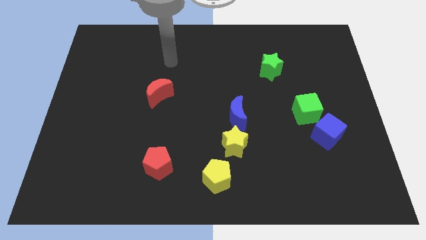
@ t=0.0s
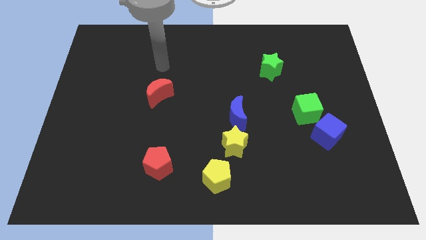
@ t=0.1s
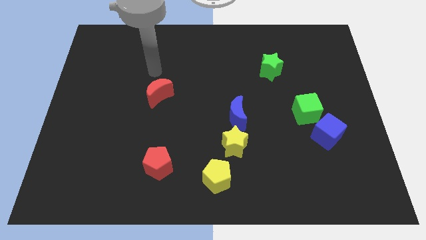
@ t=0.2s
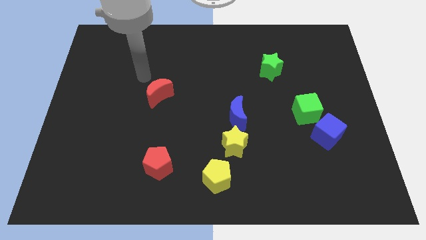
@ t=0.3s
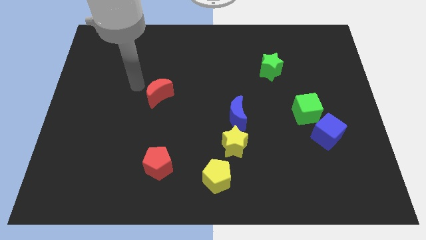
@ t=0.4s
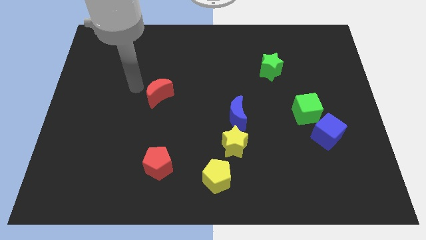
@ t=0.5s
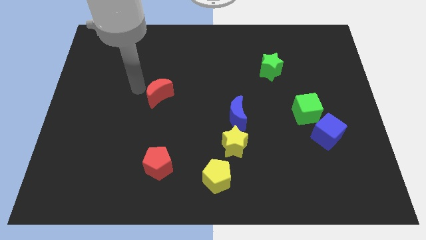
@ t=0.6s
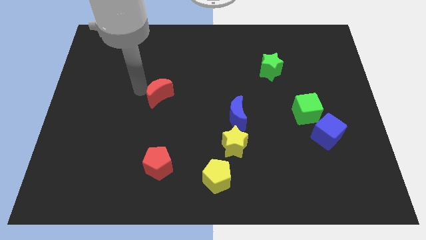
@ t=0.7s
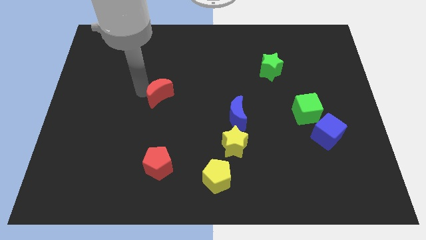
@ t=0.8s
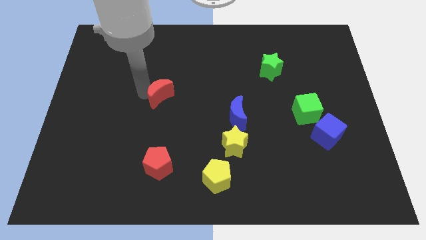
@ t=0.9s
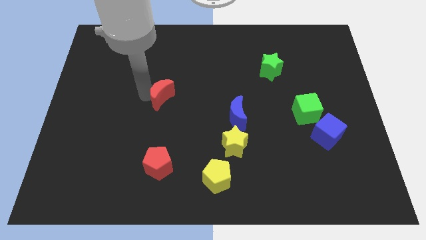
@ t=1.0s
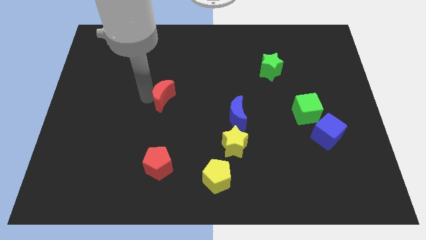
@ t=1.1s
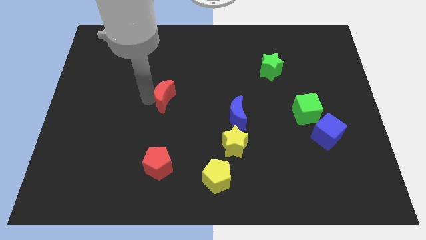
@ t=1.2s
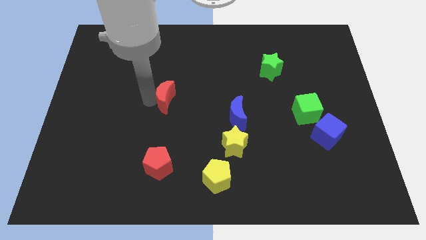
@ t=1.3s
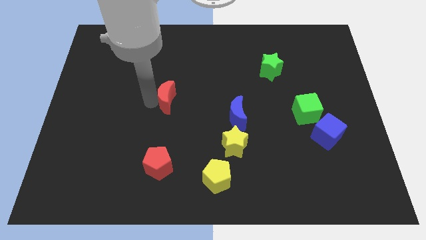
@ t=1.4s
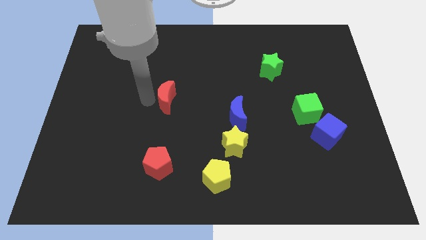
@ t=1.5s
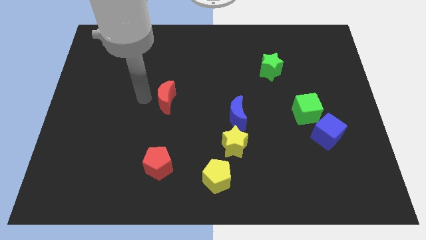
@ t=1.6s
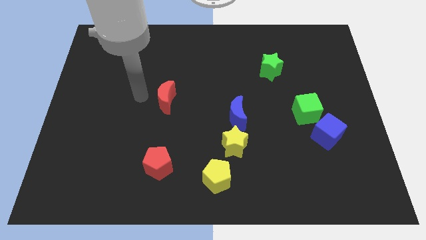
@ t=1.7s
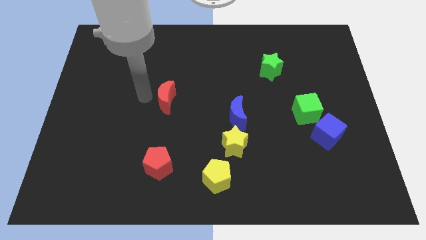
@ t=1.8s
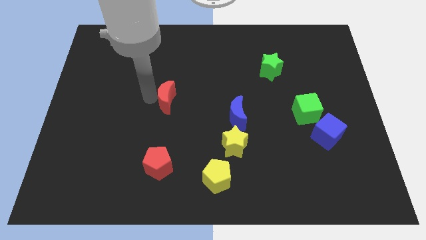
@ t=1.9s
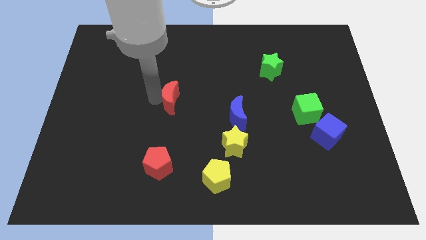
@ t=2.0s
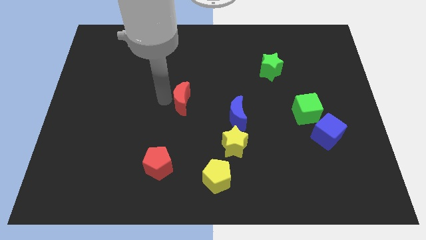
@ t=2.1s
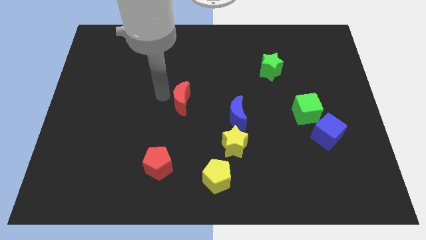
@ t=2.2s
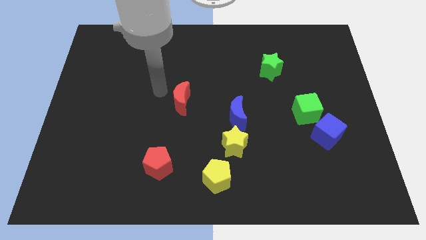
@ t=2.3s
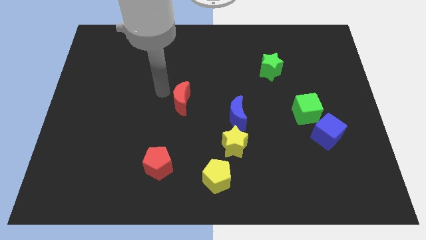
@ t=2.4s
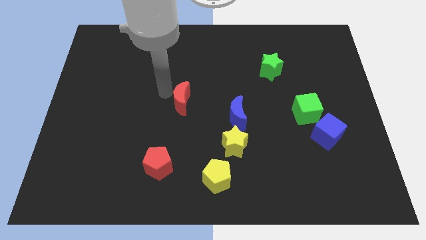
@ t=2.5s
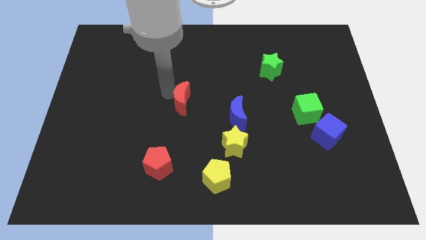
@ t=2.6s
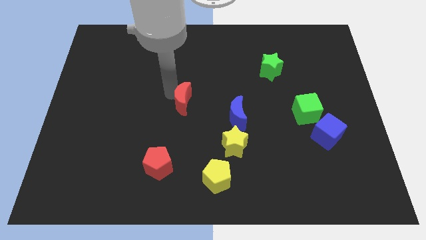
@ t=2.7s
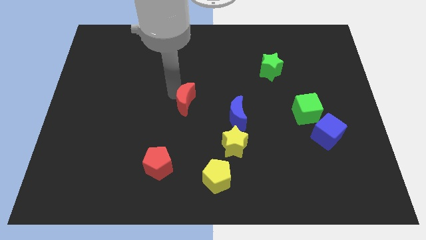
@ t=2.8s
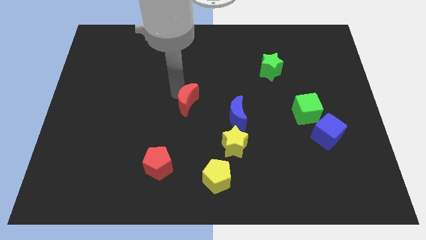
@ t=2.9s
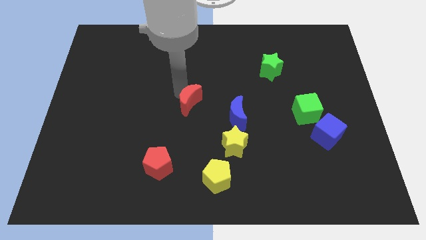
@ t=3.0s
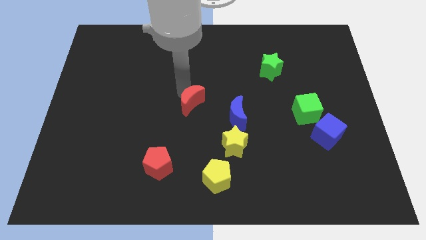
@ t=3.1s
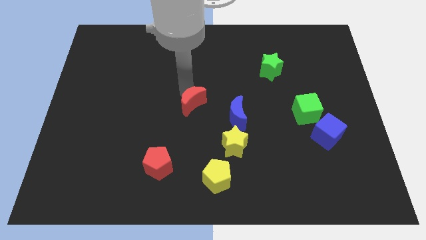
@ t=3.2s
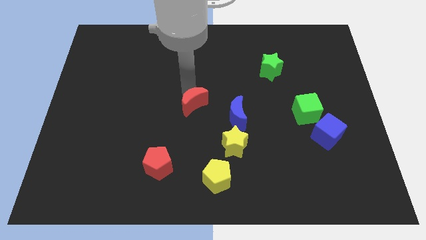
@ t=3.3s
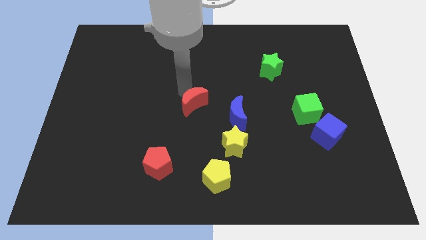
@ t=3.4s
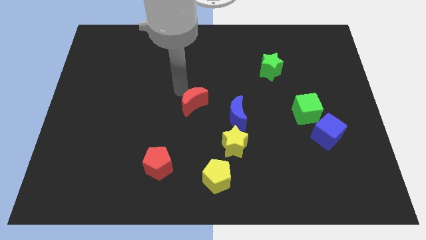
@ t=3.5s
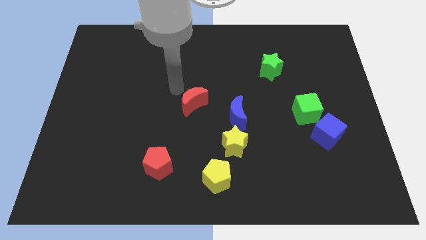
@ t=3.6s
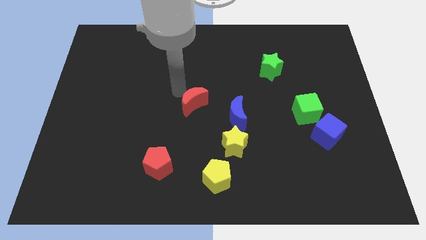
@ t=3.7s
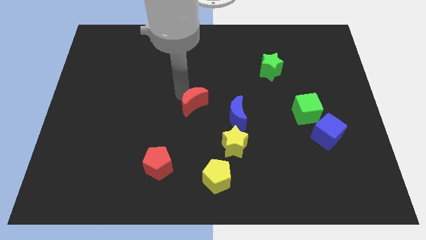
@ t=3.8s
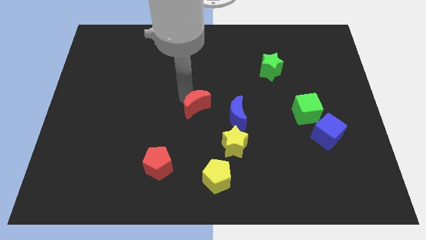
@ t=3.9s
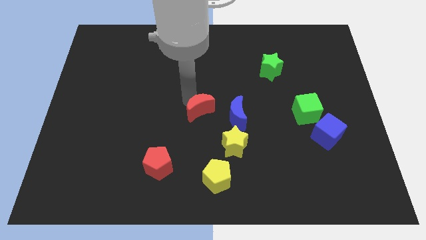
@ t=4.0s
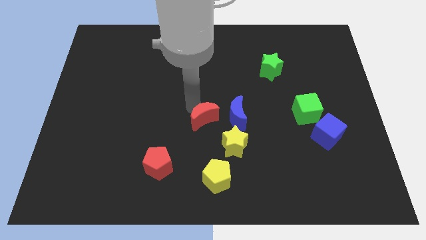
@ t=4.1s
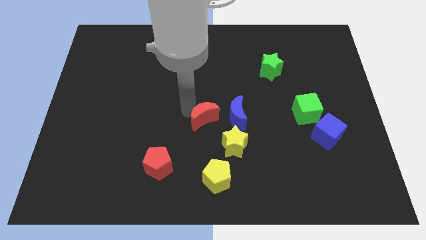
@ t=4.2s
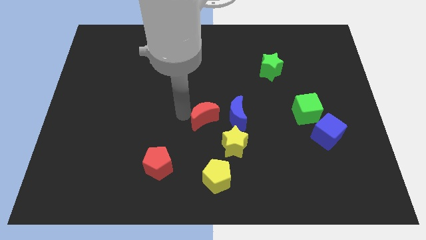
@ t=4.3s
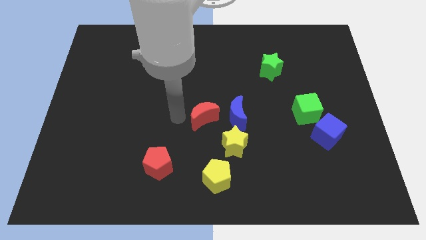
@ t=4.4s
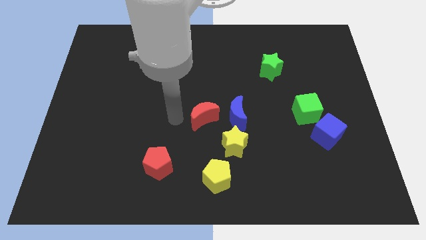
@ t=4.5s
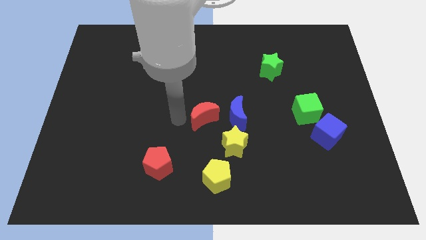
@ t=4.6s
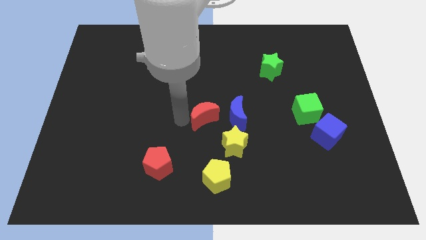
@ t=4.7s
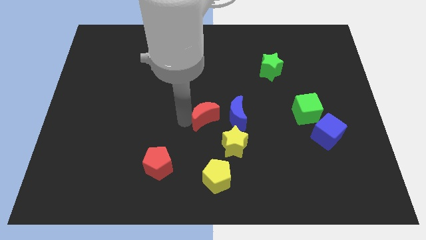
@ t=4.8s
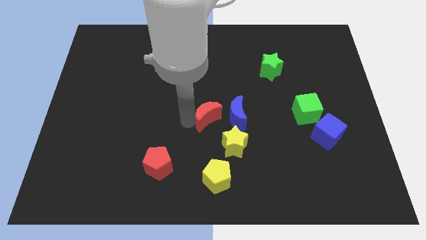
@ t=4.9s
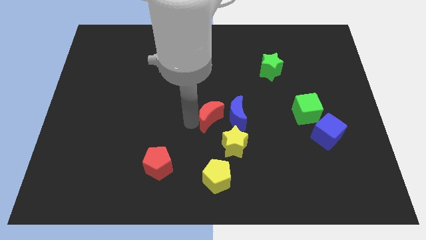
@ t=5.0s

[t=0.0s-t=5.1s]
move the red moon to the blue moon

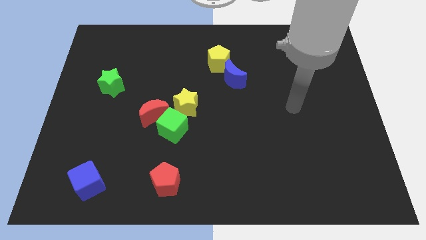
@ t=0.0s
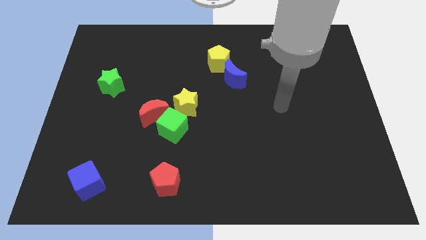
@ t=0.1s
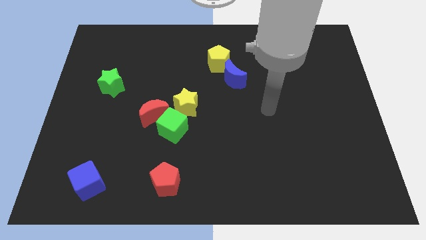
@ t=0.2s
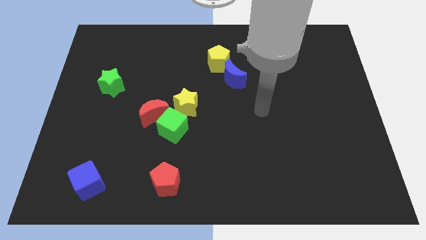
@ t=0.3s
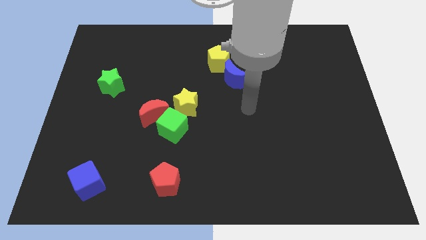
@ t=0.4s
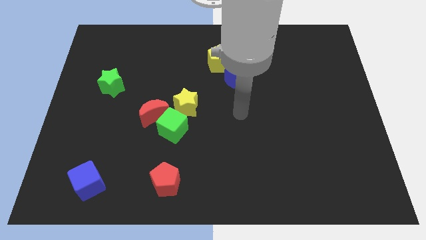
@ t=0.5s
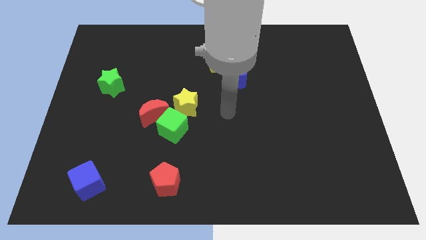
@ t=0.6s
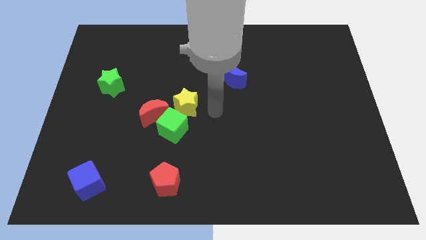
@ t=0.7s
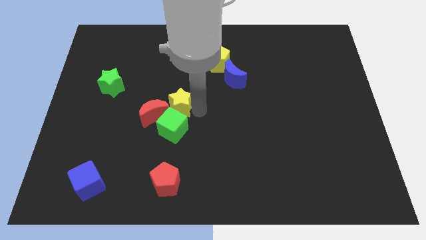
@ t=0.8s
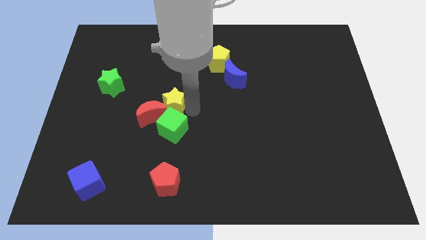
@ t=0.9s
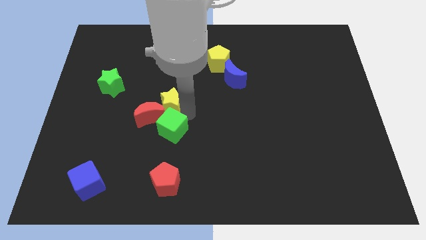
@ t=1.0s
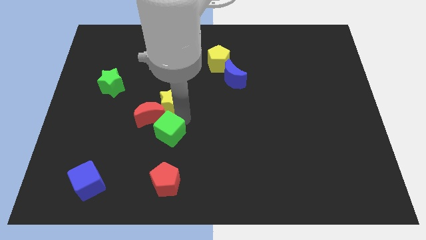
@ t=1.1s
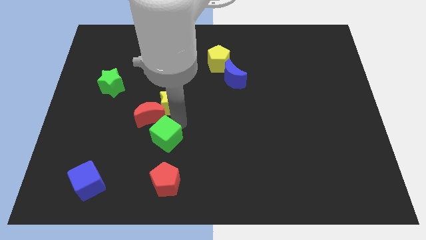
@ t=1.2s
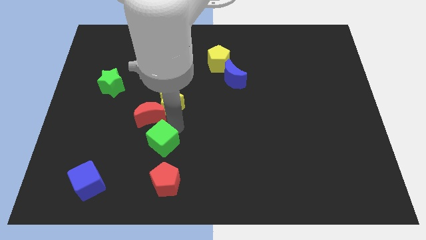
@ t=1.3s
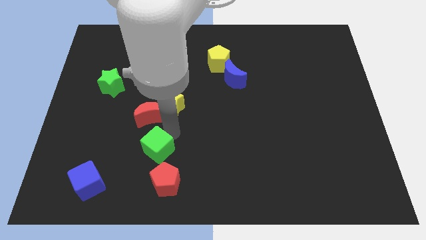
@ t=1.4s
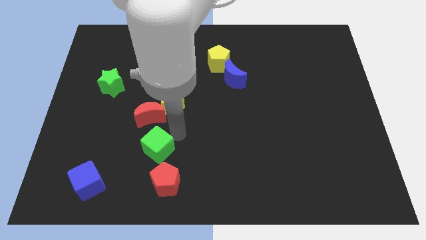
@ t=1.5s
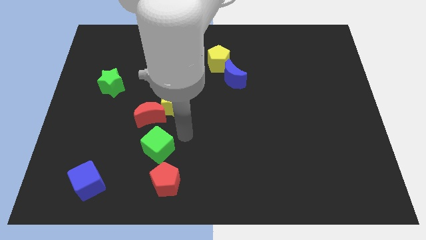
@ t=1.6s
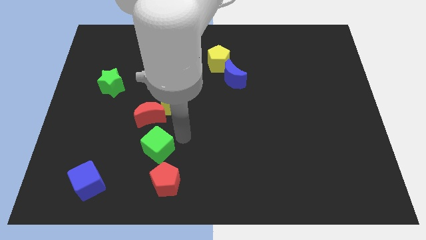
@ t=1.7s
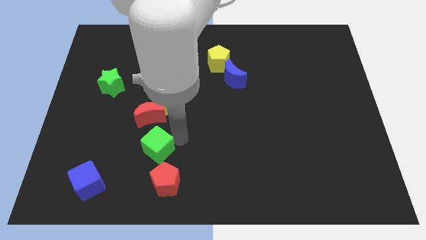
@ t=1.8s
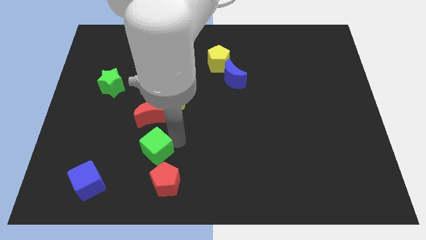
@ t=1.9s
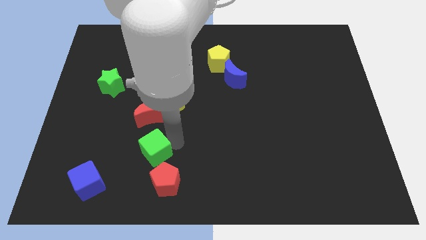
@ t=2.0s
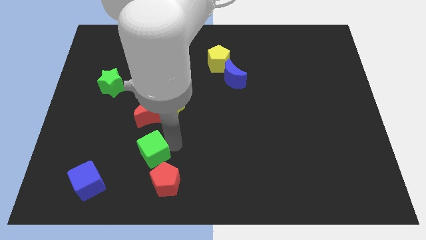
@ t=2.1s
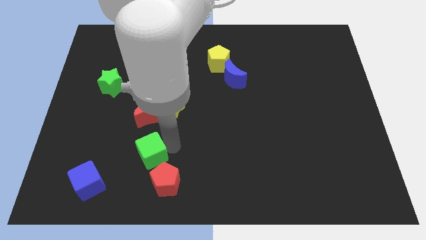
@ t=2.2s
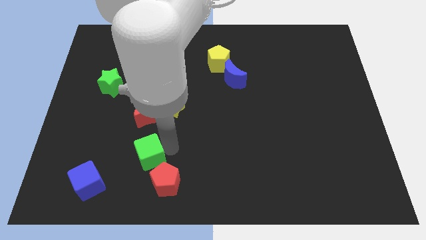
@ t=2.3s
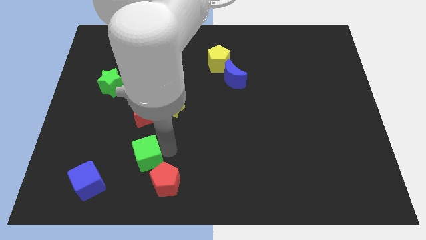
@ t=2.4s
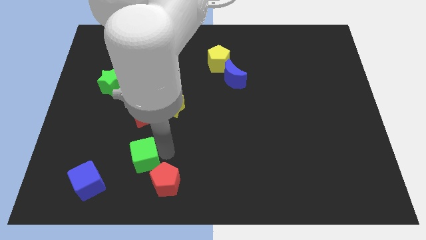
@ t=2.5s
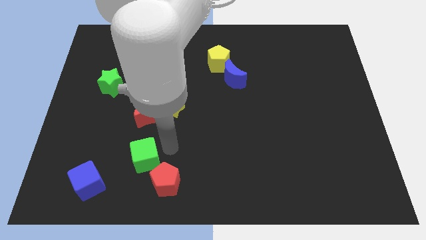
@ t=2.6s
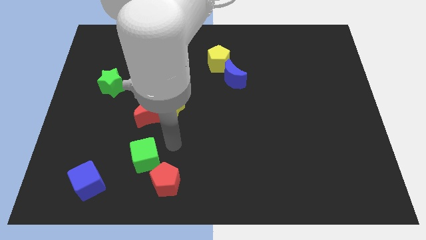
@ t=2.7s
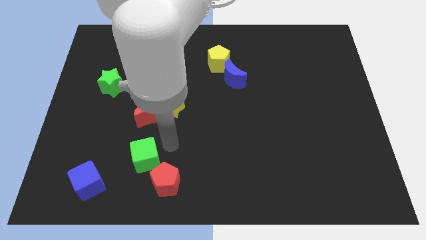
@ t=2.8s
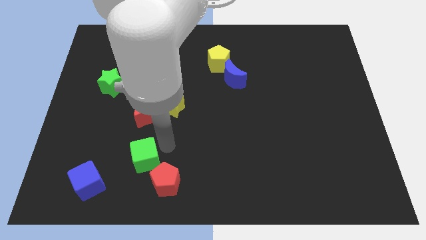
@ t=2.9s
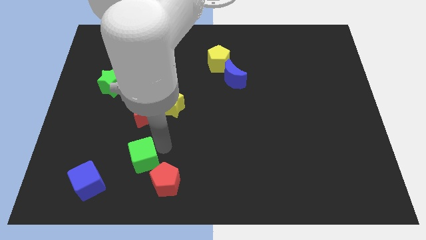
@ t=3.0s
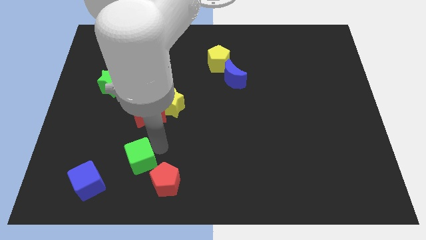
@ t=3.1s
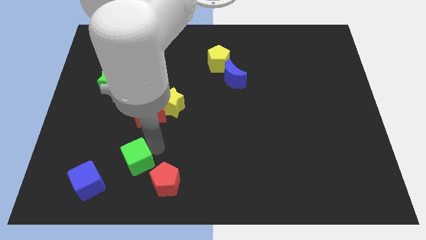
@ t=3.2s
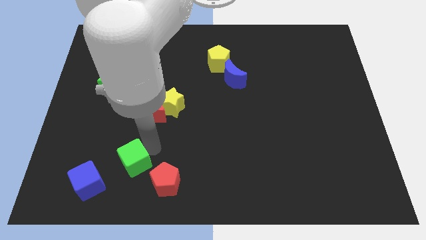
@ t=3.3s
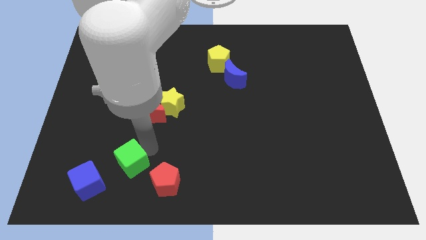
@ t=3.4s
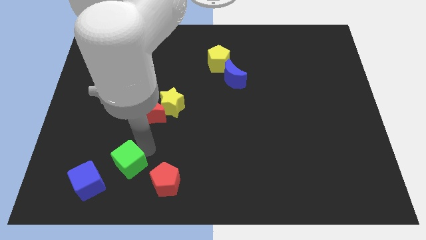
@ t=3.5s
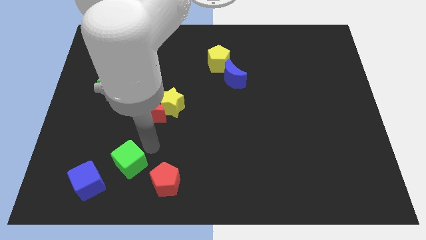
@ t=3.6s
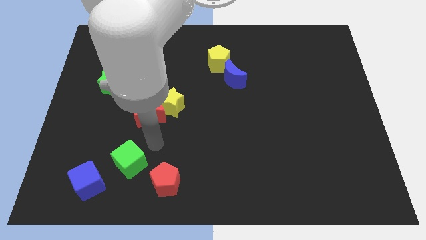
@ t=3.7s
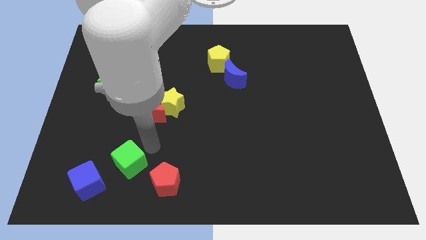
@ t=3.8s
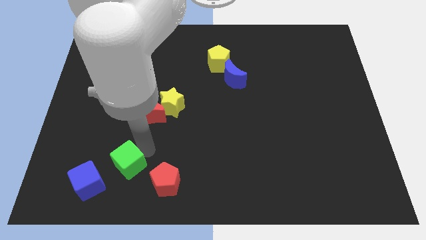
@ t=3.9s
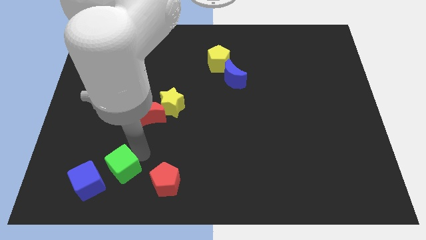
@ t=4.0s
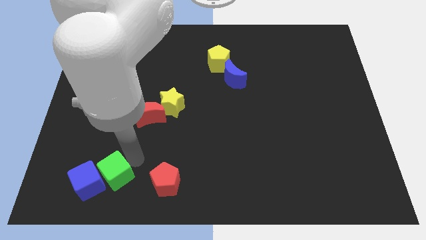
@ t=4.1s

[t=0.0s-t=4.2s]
push the green cube close to the blue cube
